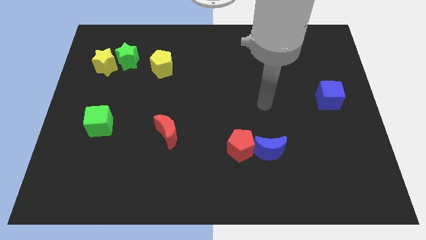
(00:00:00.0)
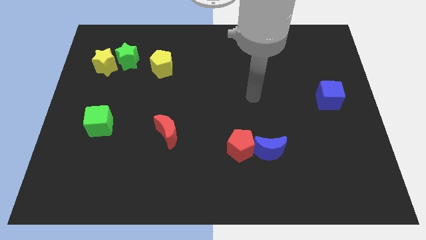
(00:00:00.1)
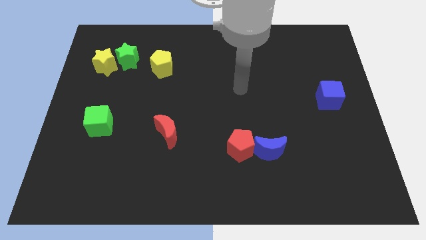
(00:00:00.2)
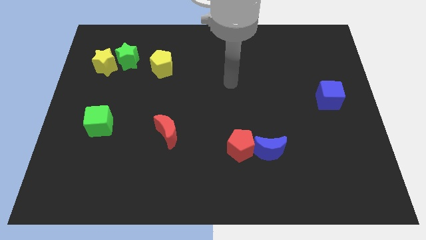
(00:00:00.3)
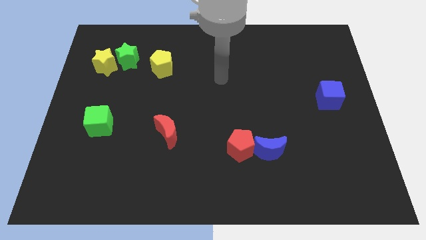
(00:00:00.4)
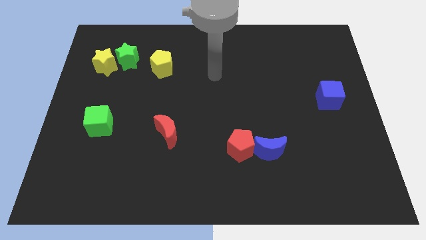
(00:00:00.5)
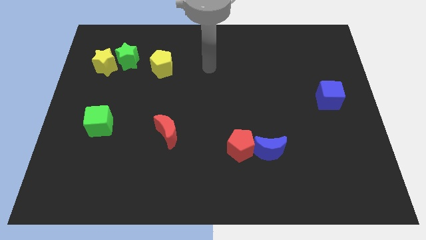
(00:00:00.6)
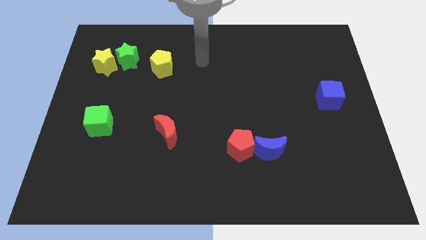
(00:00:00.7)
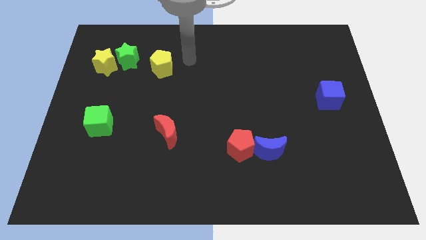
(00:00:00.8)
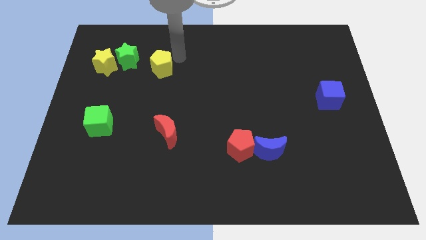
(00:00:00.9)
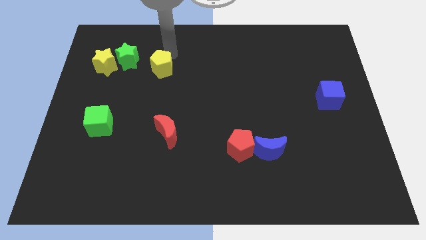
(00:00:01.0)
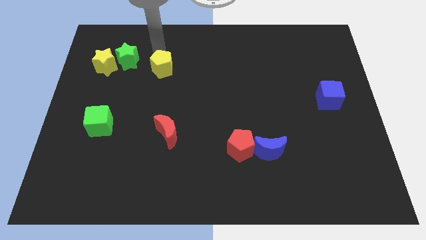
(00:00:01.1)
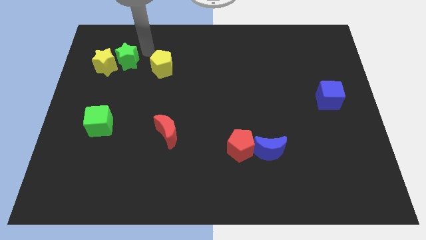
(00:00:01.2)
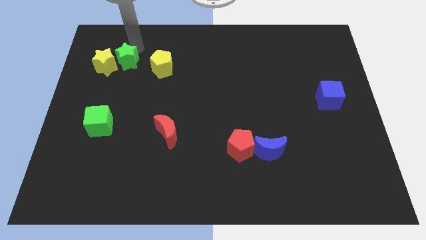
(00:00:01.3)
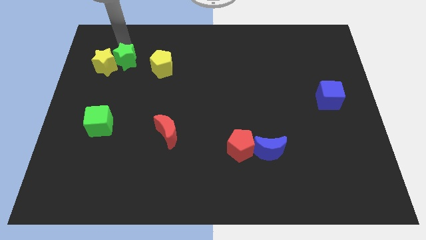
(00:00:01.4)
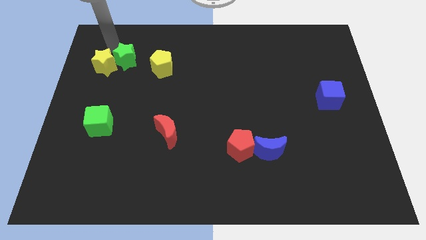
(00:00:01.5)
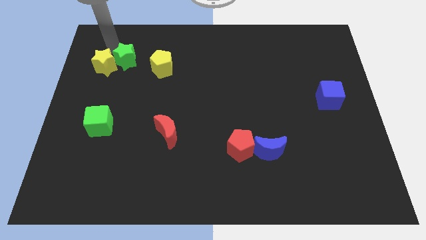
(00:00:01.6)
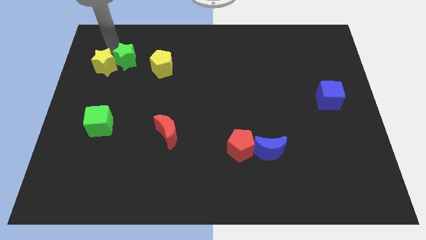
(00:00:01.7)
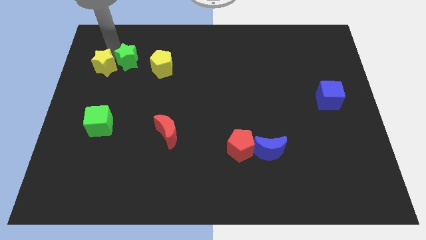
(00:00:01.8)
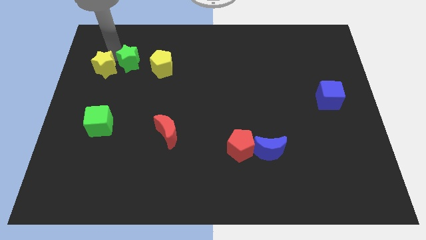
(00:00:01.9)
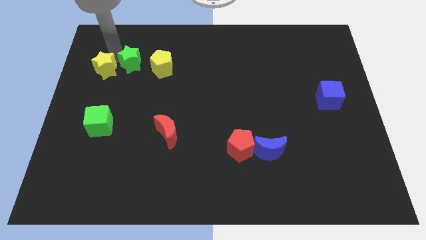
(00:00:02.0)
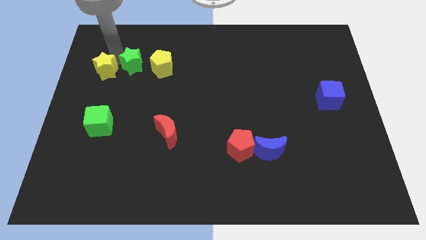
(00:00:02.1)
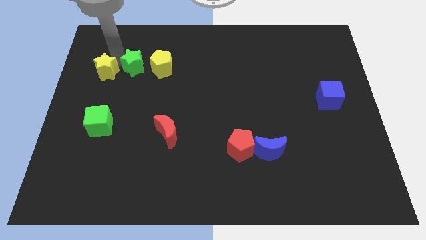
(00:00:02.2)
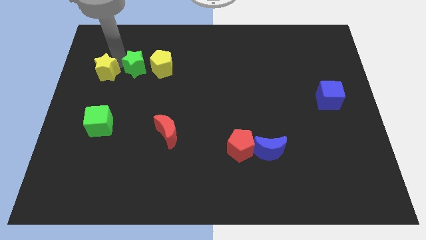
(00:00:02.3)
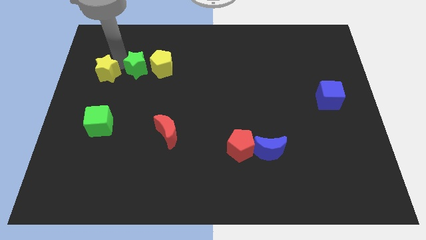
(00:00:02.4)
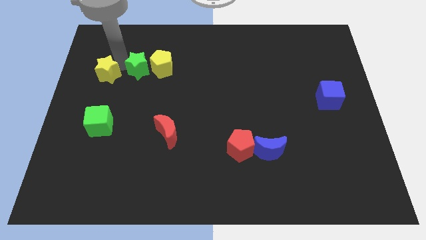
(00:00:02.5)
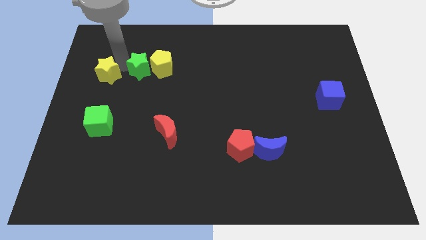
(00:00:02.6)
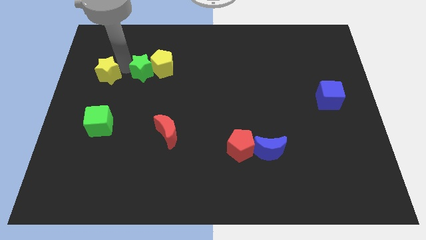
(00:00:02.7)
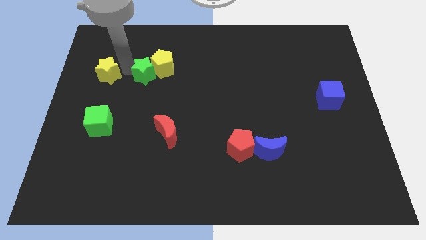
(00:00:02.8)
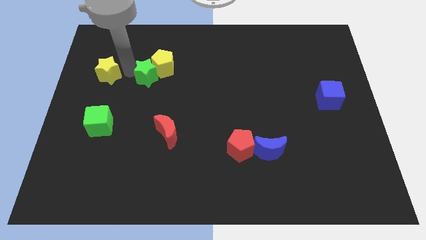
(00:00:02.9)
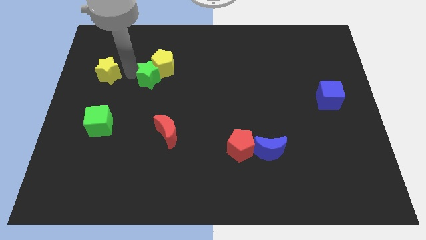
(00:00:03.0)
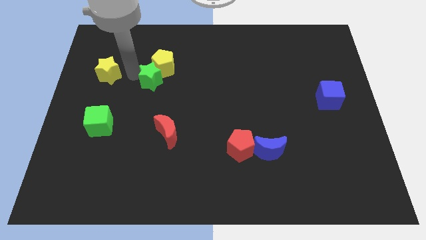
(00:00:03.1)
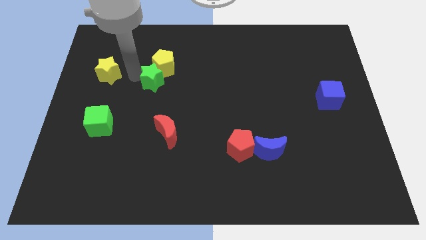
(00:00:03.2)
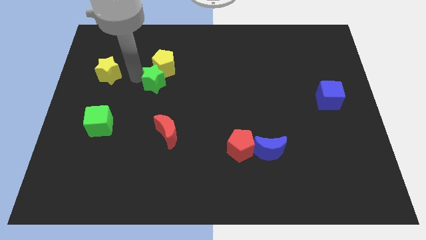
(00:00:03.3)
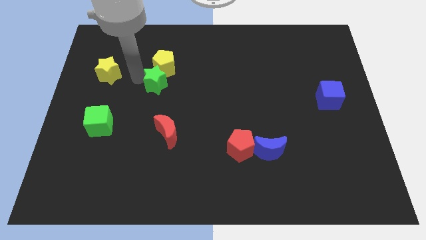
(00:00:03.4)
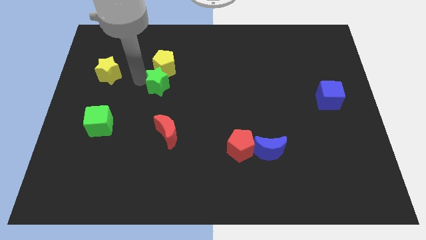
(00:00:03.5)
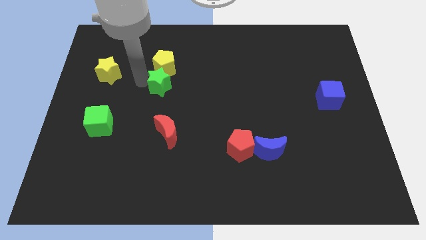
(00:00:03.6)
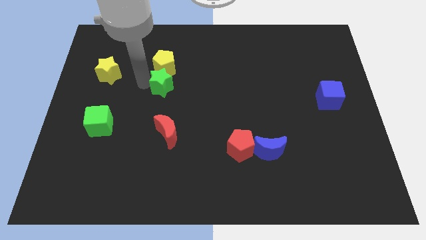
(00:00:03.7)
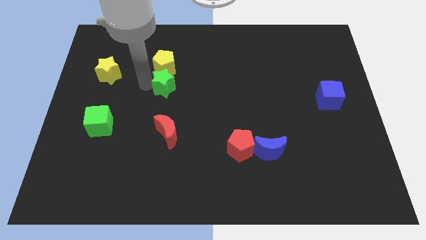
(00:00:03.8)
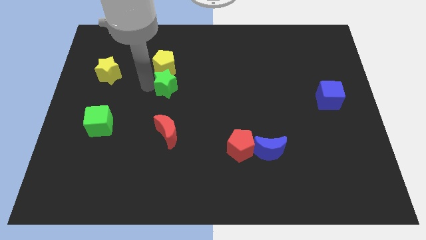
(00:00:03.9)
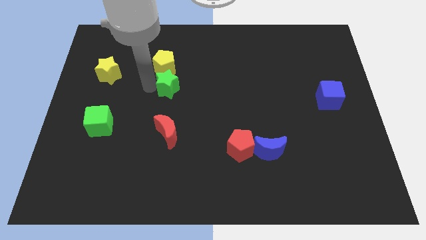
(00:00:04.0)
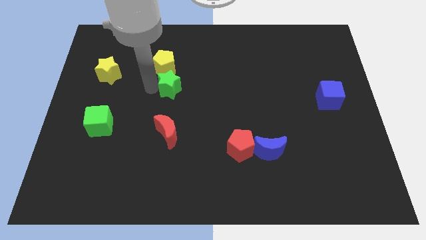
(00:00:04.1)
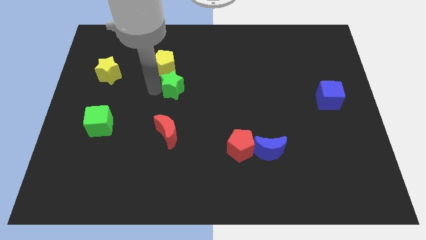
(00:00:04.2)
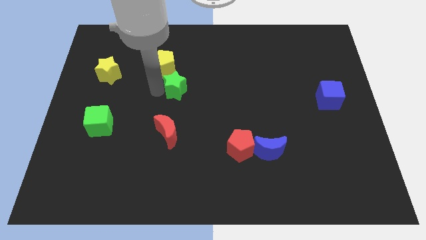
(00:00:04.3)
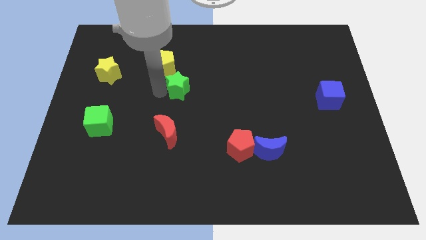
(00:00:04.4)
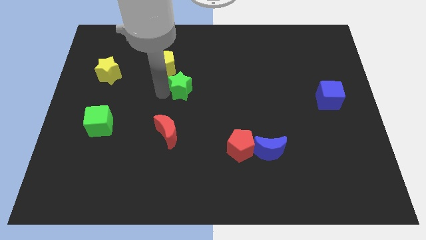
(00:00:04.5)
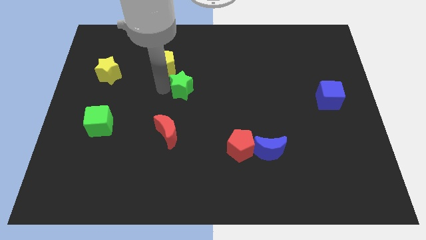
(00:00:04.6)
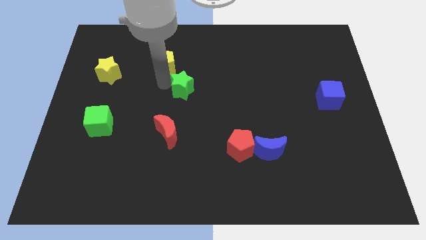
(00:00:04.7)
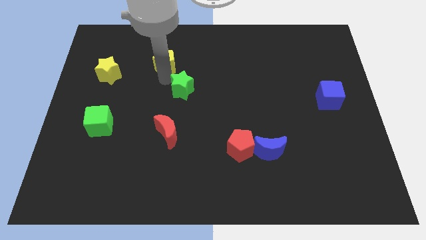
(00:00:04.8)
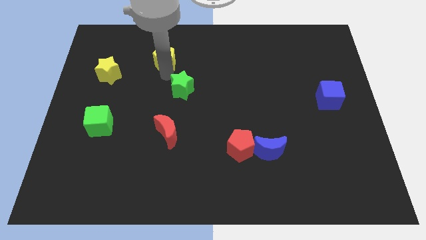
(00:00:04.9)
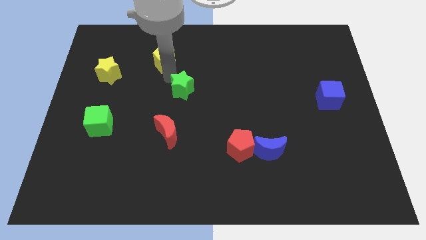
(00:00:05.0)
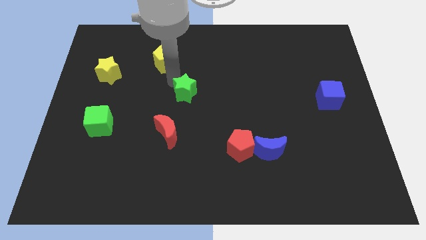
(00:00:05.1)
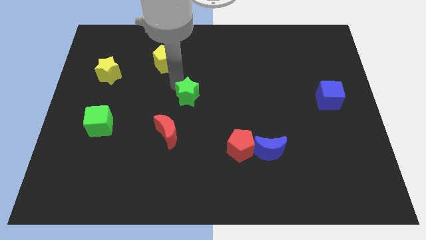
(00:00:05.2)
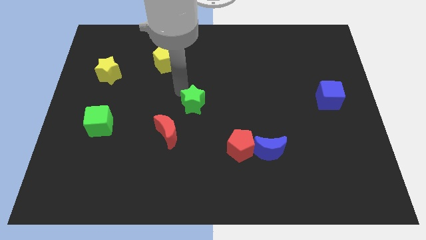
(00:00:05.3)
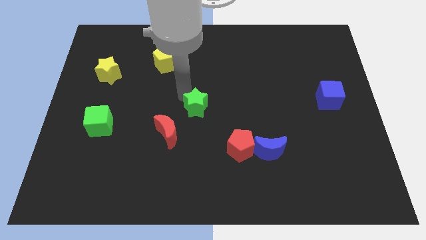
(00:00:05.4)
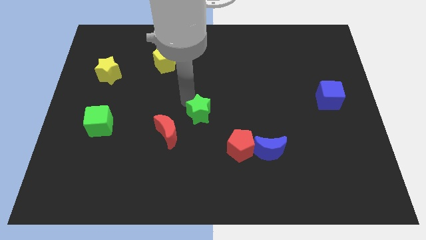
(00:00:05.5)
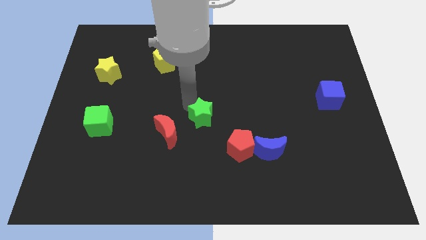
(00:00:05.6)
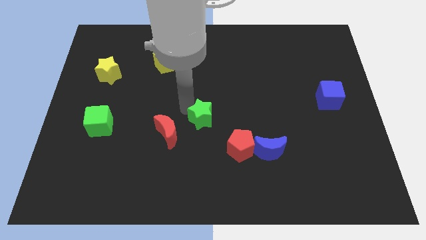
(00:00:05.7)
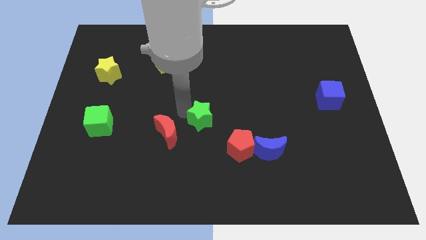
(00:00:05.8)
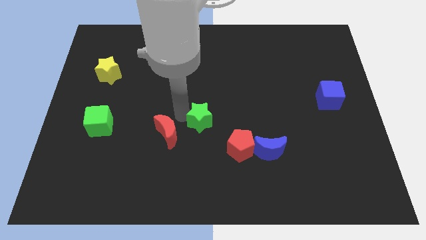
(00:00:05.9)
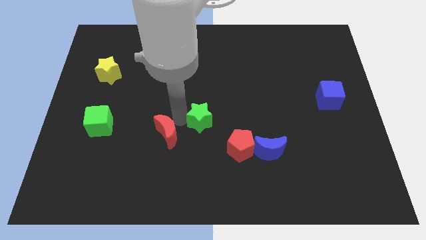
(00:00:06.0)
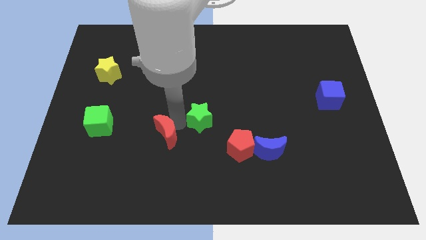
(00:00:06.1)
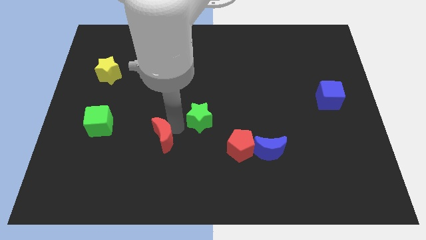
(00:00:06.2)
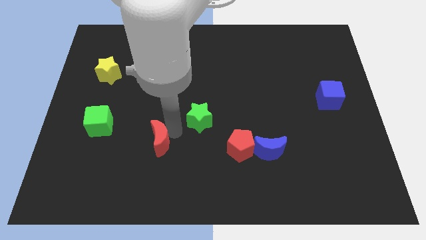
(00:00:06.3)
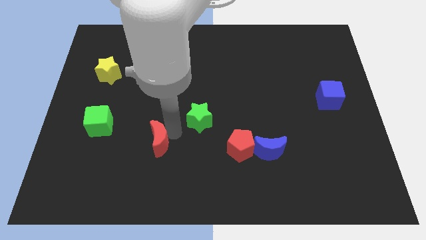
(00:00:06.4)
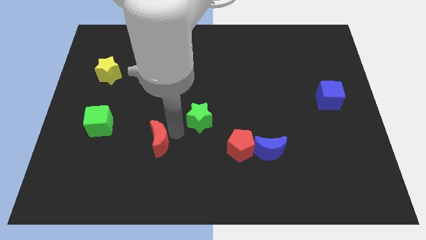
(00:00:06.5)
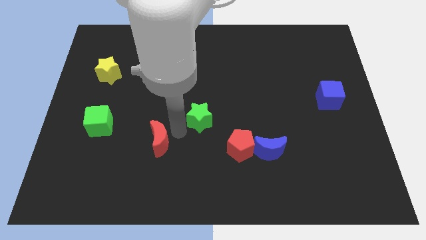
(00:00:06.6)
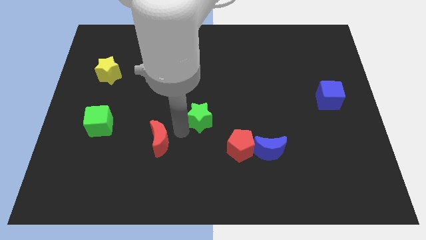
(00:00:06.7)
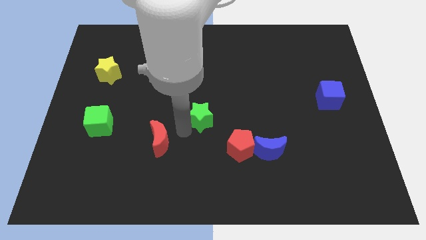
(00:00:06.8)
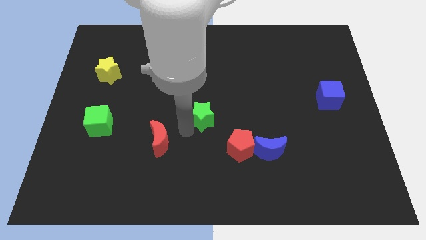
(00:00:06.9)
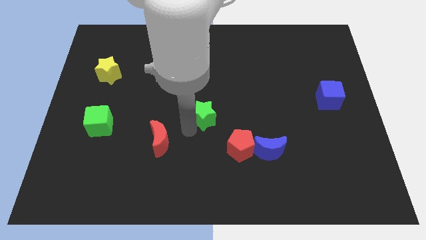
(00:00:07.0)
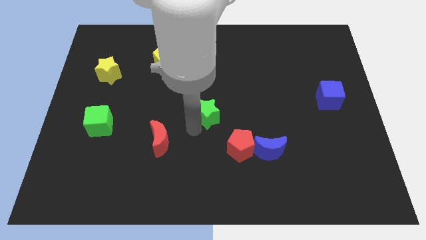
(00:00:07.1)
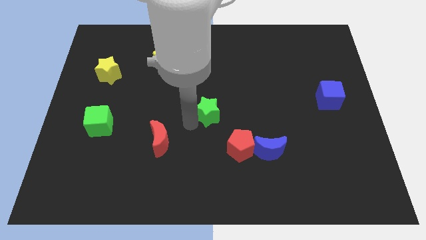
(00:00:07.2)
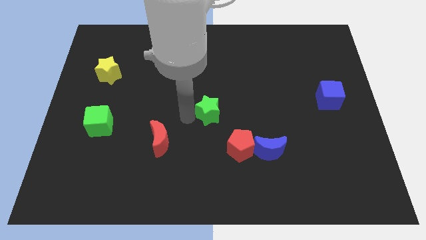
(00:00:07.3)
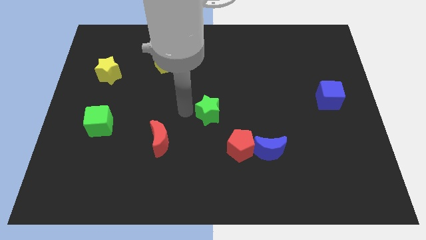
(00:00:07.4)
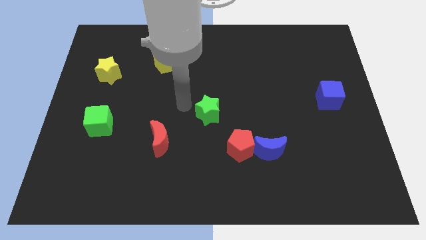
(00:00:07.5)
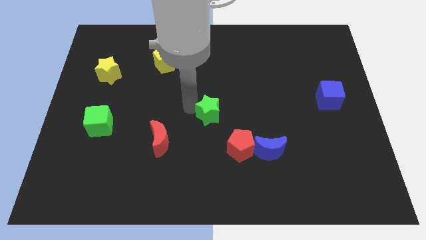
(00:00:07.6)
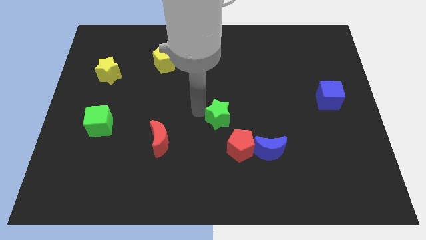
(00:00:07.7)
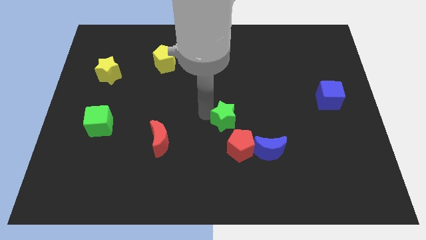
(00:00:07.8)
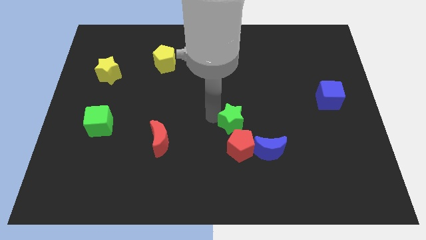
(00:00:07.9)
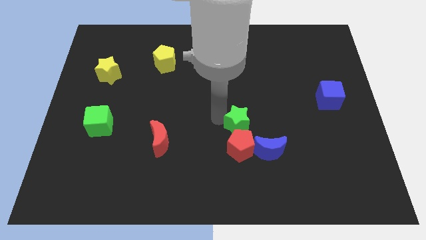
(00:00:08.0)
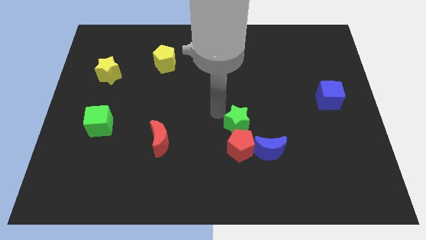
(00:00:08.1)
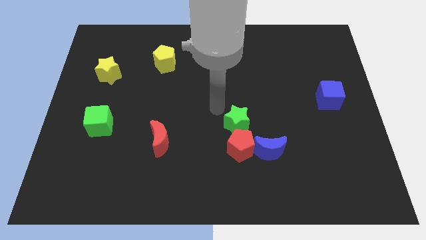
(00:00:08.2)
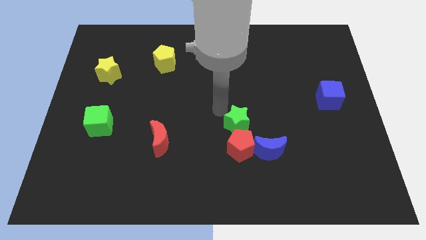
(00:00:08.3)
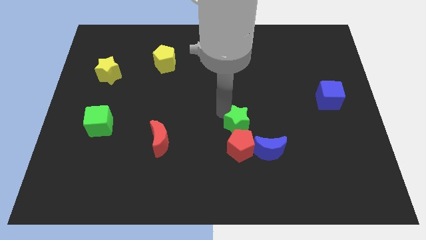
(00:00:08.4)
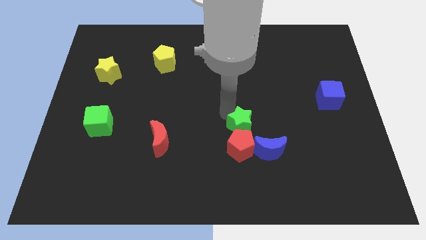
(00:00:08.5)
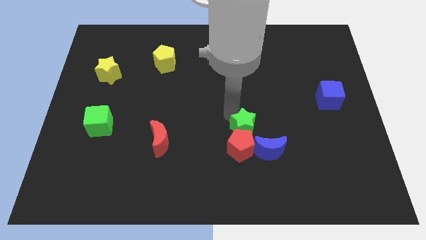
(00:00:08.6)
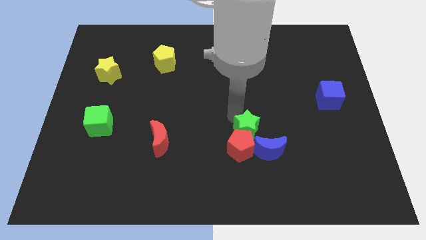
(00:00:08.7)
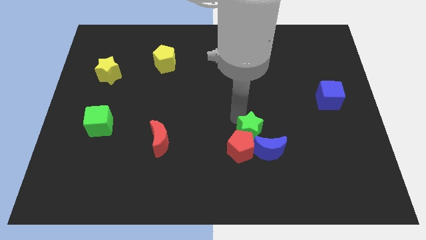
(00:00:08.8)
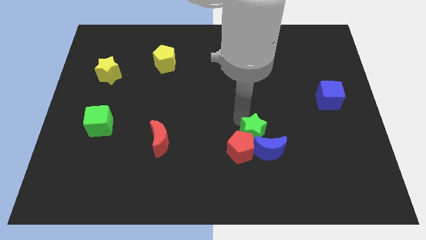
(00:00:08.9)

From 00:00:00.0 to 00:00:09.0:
slide the green star to the blue moon
